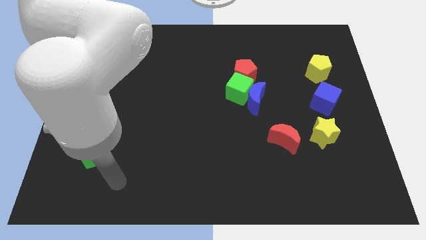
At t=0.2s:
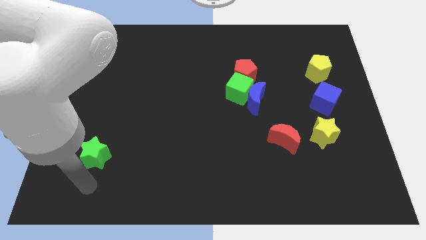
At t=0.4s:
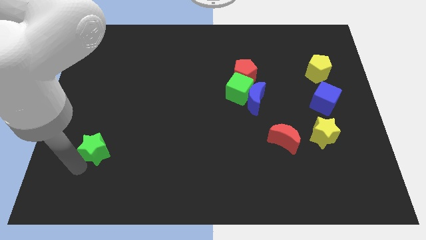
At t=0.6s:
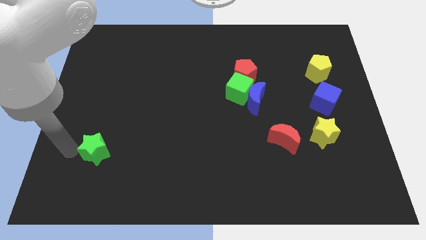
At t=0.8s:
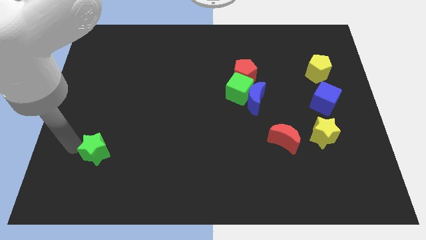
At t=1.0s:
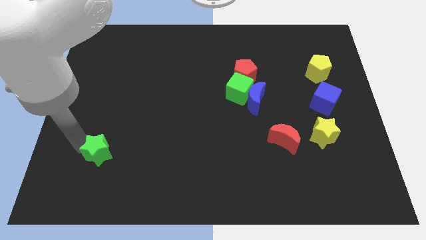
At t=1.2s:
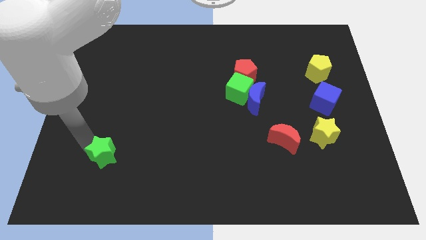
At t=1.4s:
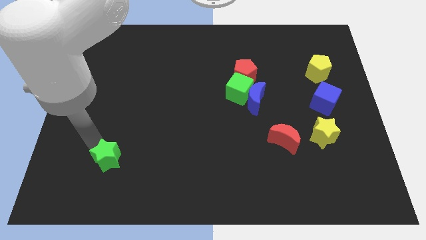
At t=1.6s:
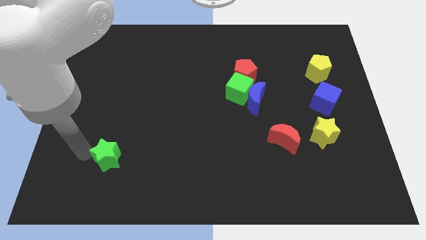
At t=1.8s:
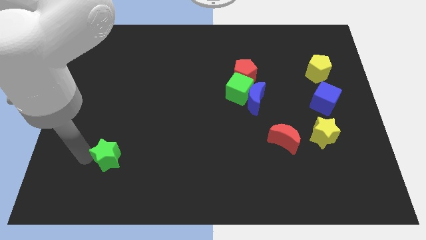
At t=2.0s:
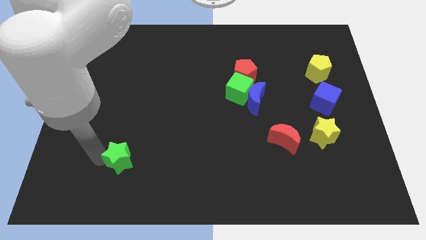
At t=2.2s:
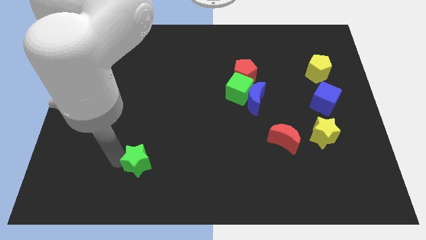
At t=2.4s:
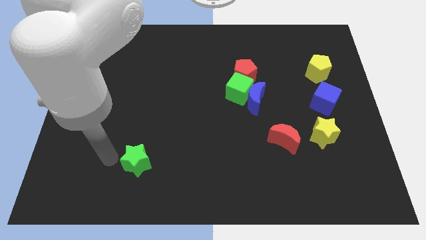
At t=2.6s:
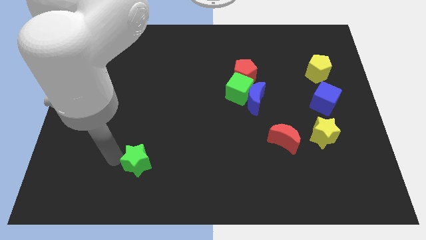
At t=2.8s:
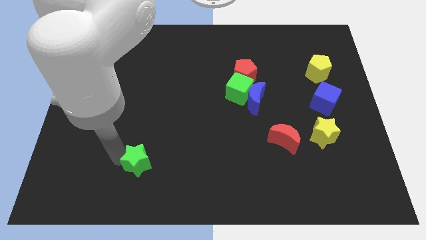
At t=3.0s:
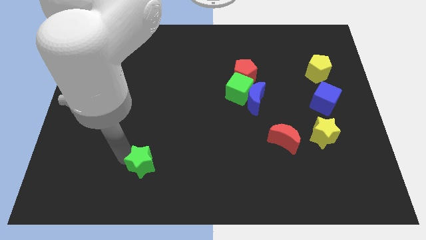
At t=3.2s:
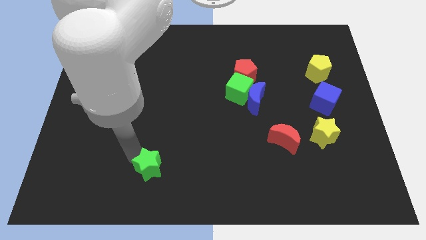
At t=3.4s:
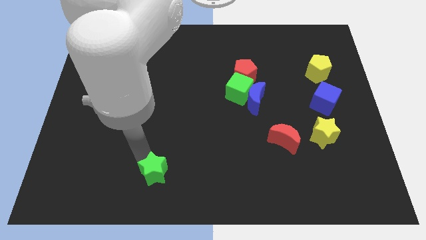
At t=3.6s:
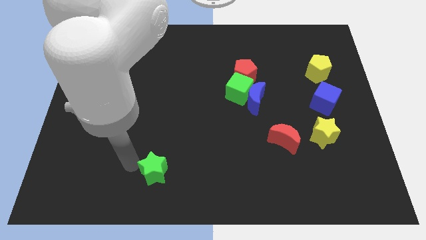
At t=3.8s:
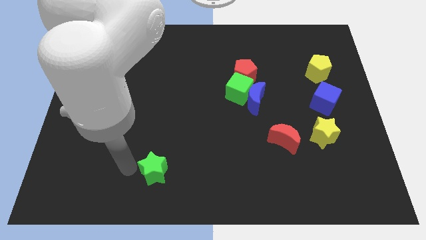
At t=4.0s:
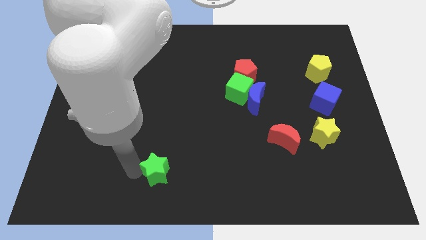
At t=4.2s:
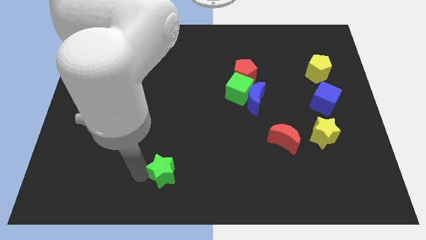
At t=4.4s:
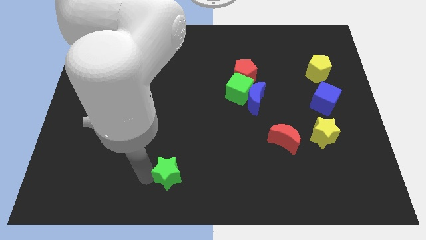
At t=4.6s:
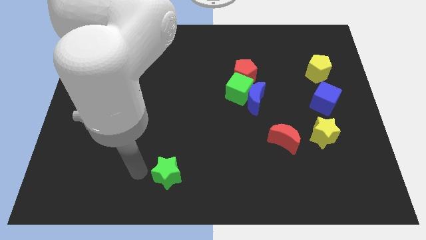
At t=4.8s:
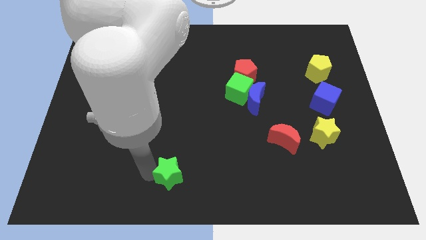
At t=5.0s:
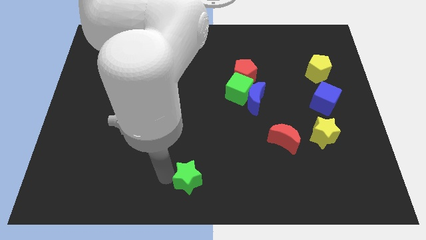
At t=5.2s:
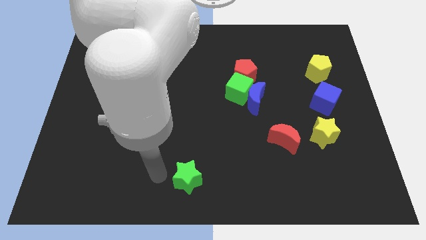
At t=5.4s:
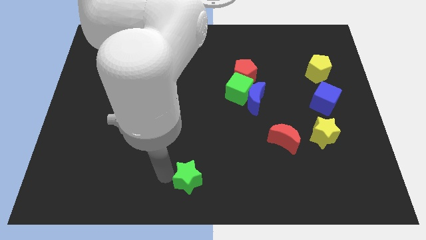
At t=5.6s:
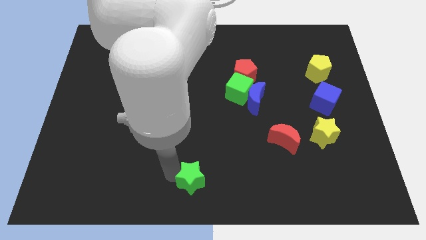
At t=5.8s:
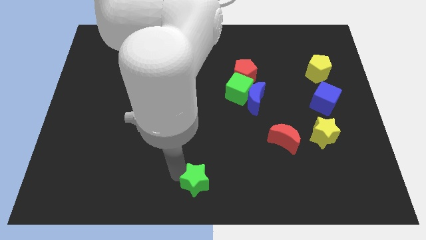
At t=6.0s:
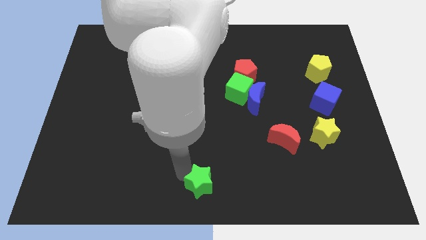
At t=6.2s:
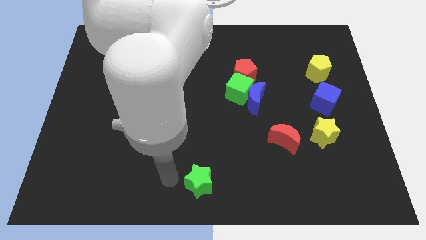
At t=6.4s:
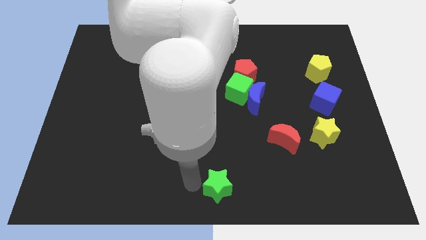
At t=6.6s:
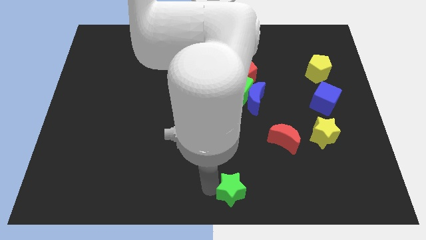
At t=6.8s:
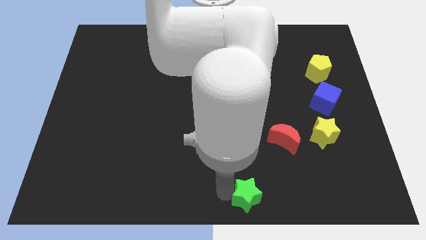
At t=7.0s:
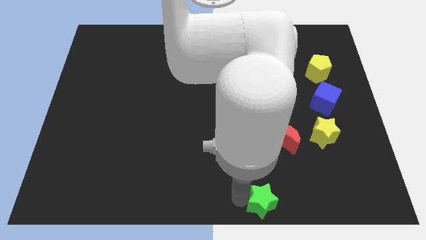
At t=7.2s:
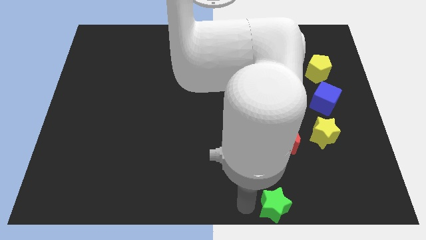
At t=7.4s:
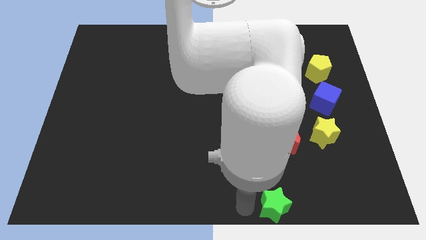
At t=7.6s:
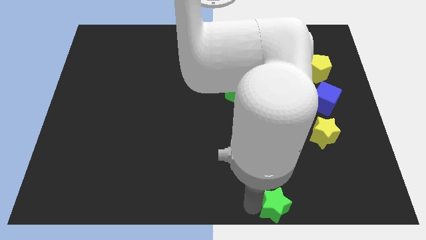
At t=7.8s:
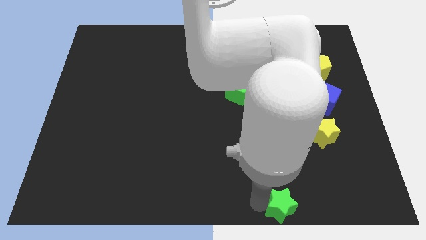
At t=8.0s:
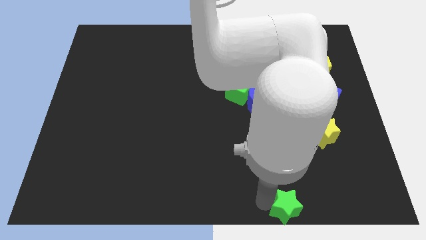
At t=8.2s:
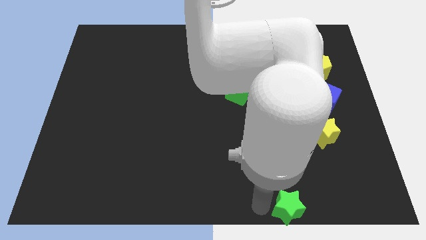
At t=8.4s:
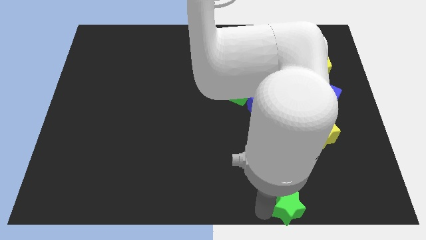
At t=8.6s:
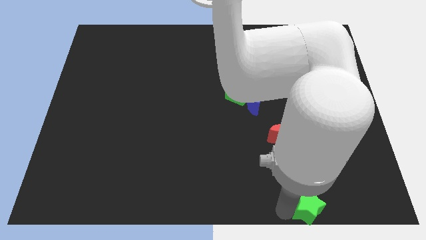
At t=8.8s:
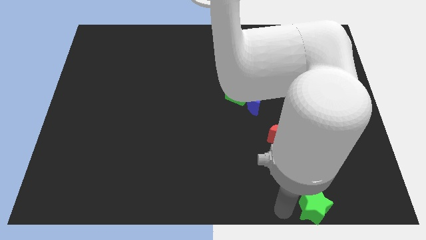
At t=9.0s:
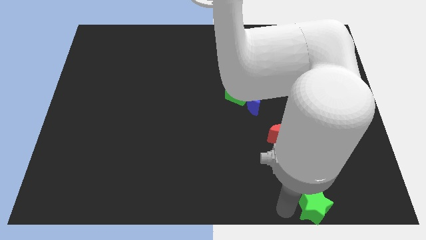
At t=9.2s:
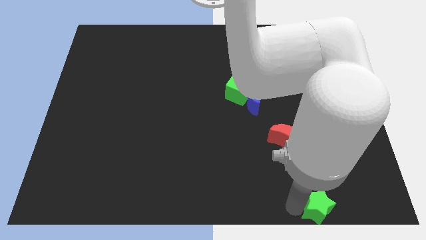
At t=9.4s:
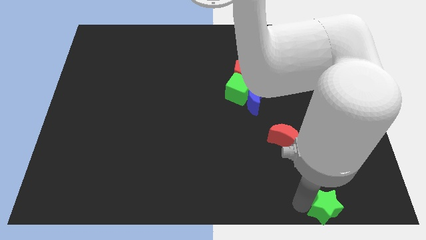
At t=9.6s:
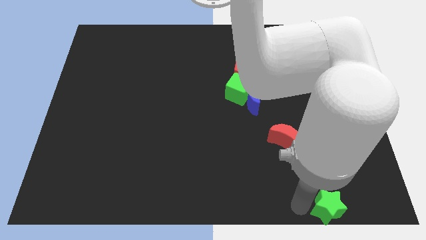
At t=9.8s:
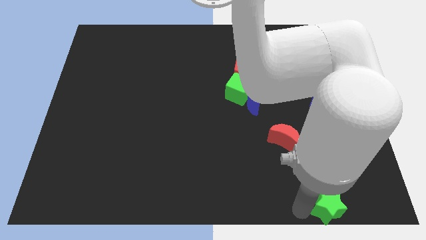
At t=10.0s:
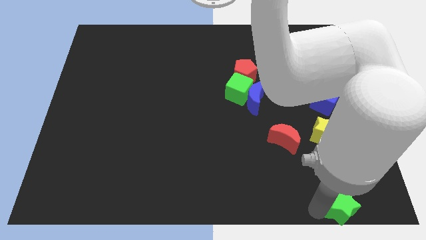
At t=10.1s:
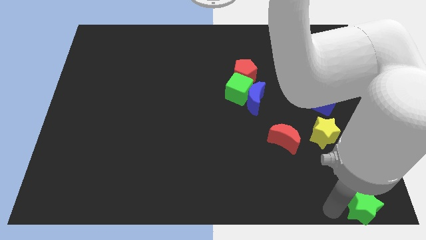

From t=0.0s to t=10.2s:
slide the green star to the bottom right of the board

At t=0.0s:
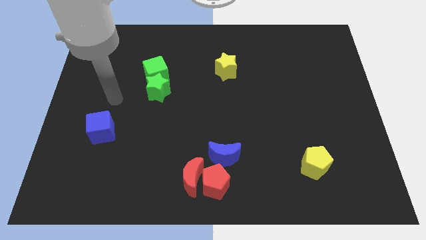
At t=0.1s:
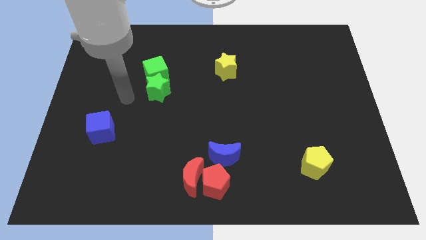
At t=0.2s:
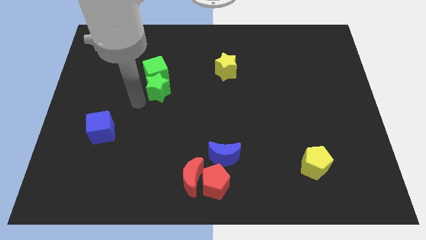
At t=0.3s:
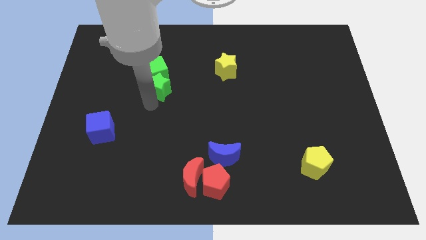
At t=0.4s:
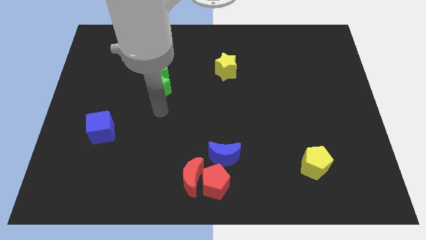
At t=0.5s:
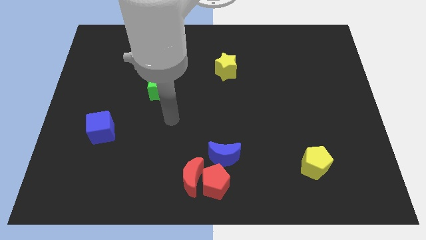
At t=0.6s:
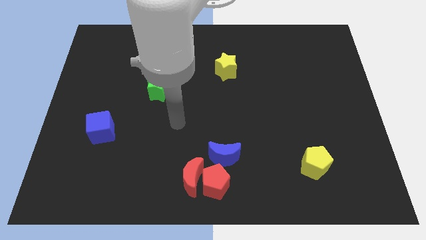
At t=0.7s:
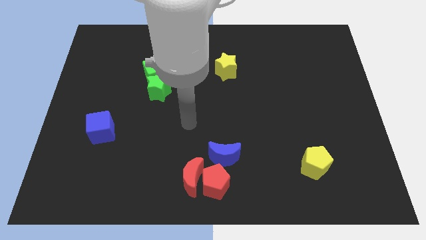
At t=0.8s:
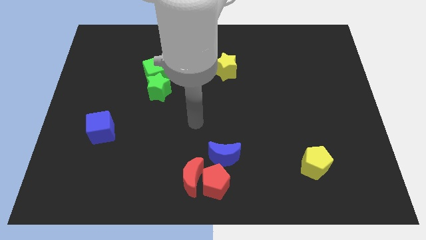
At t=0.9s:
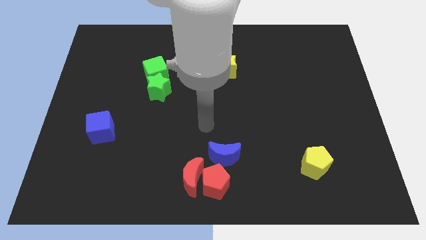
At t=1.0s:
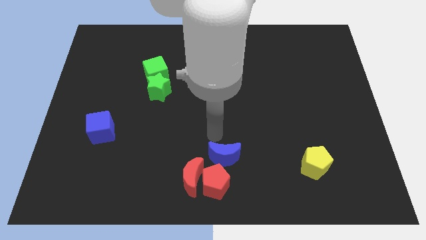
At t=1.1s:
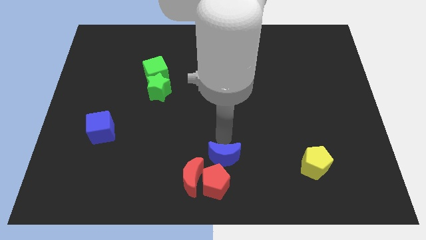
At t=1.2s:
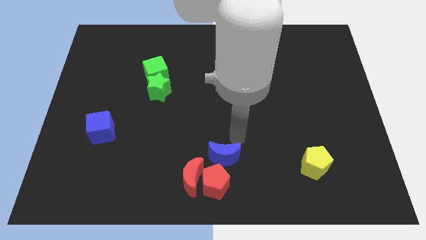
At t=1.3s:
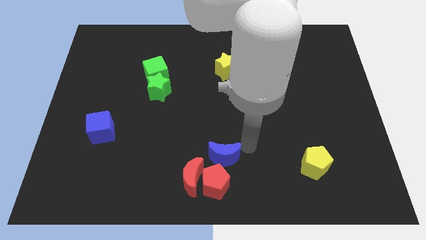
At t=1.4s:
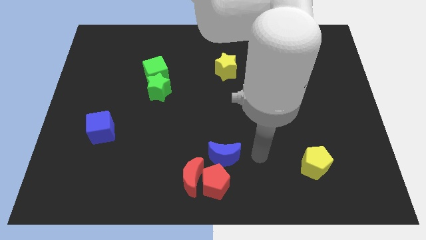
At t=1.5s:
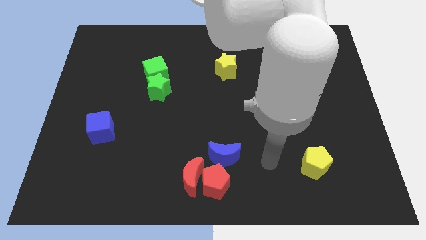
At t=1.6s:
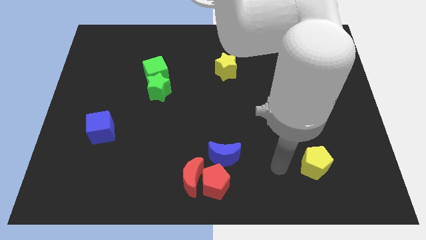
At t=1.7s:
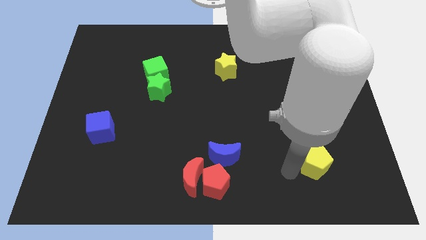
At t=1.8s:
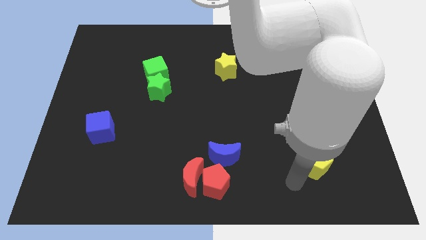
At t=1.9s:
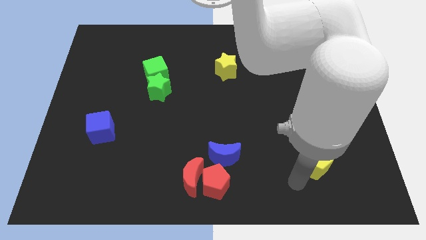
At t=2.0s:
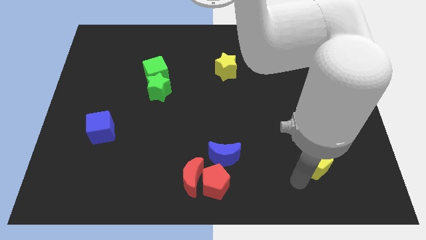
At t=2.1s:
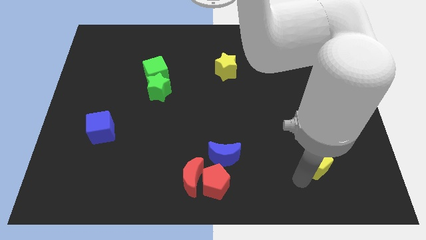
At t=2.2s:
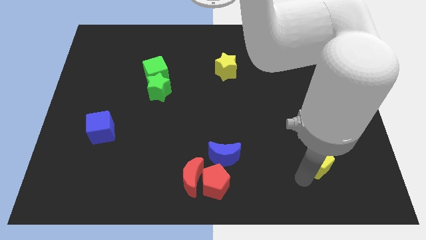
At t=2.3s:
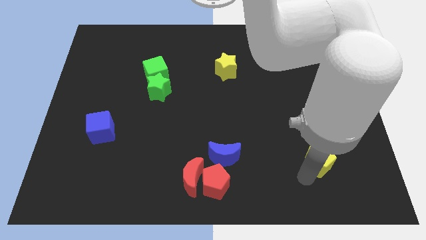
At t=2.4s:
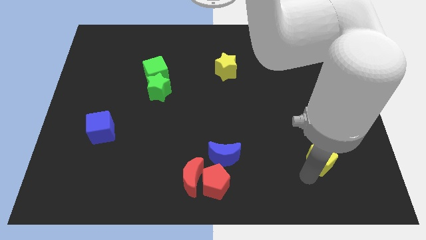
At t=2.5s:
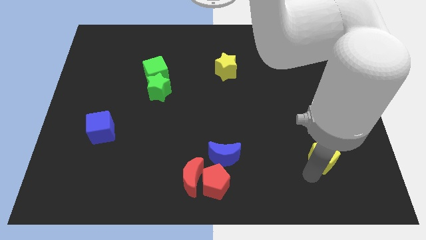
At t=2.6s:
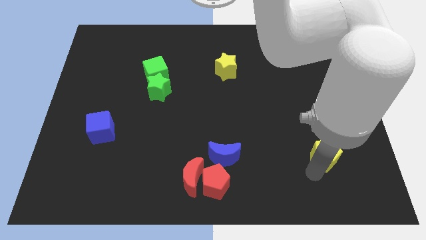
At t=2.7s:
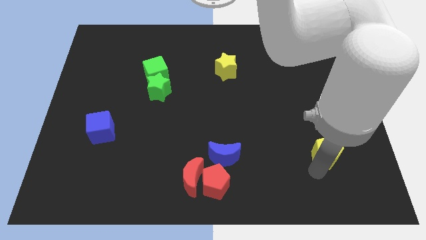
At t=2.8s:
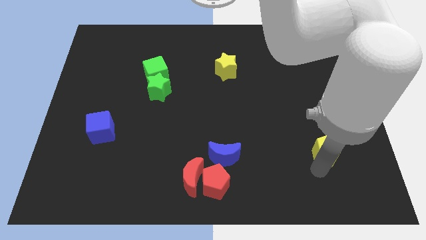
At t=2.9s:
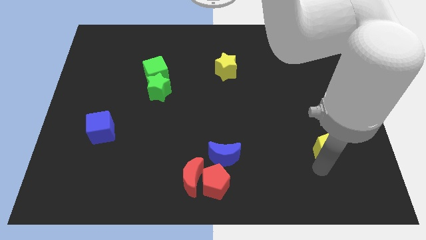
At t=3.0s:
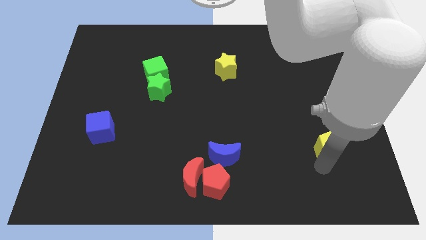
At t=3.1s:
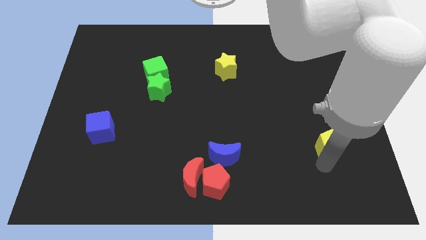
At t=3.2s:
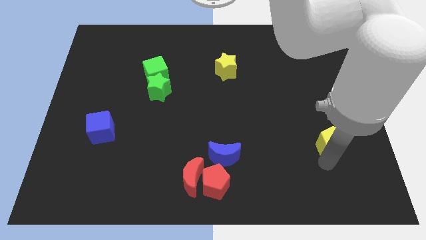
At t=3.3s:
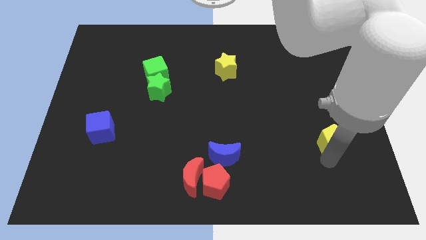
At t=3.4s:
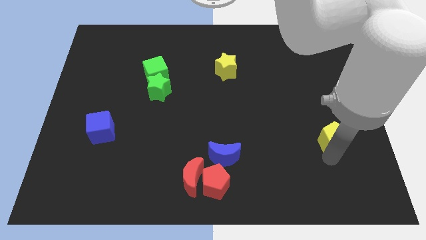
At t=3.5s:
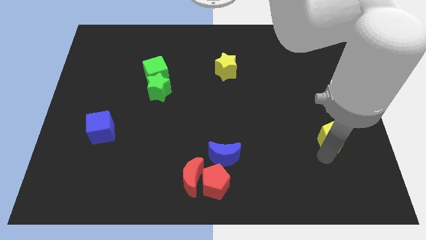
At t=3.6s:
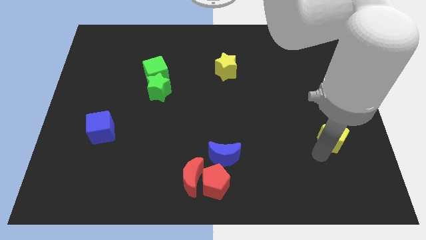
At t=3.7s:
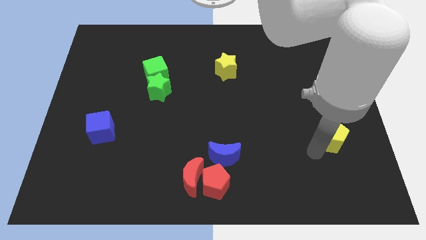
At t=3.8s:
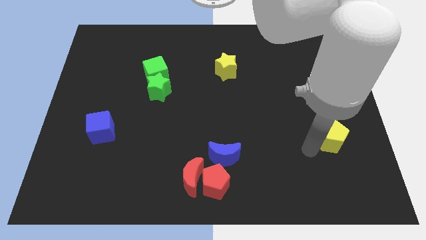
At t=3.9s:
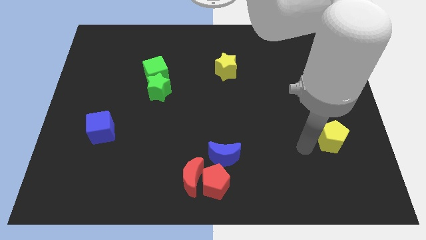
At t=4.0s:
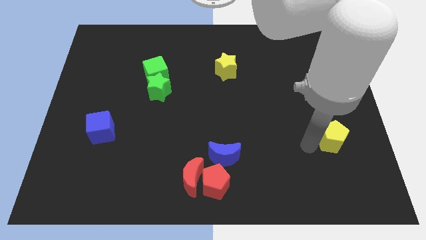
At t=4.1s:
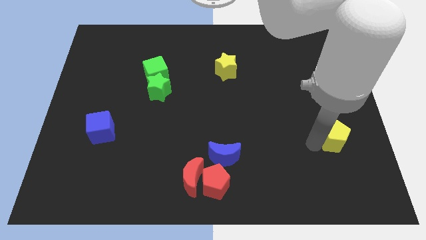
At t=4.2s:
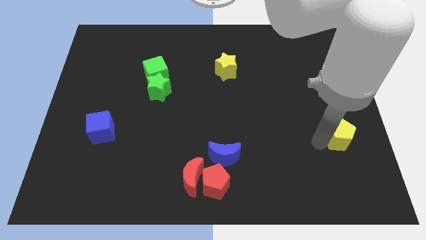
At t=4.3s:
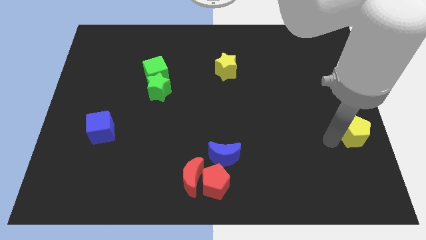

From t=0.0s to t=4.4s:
slide the yellow pentagon to the right side
